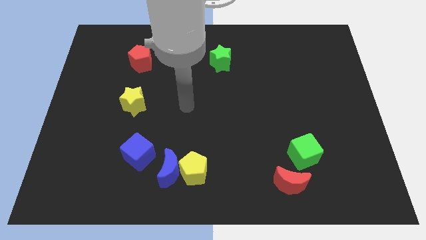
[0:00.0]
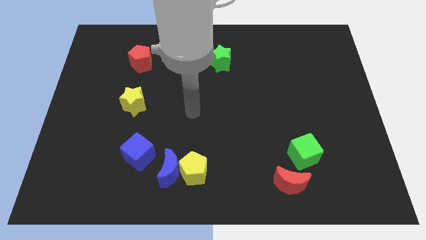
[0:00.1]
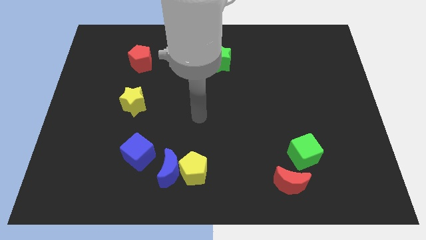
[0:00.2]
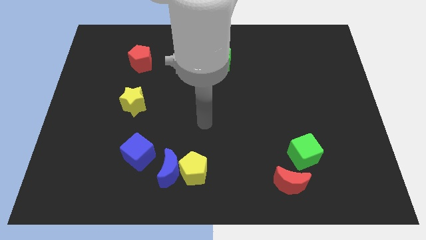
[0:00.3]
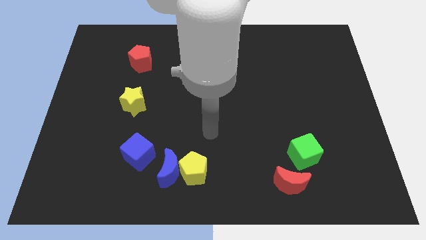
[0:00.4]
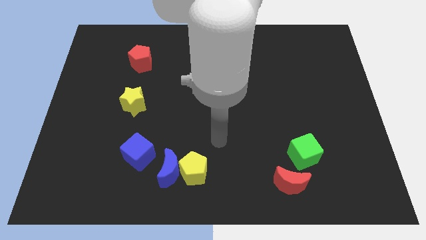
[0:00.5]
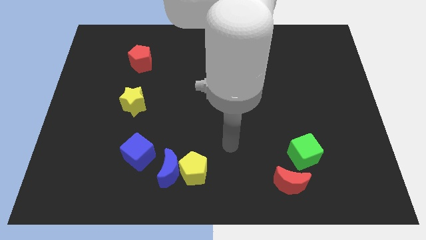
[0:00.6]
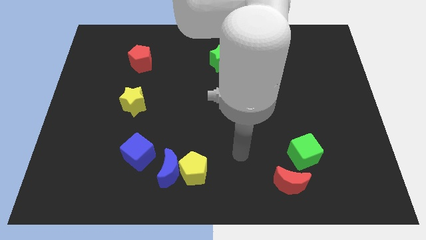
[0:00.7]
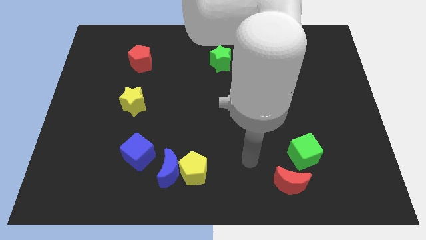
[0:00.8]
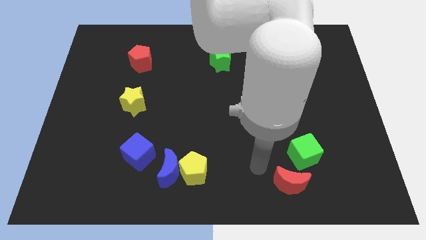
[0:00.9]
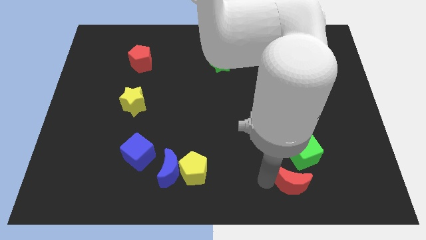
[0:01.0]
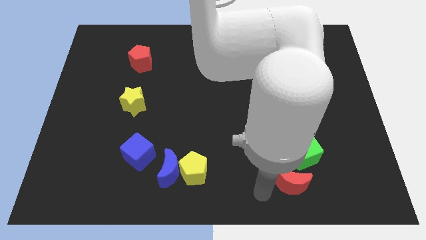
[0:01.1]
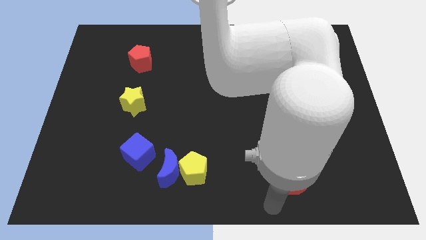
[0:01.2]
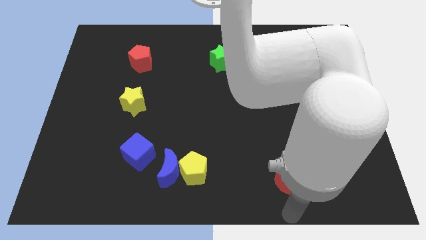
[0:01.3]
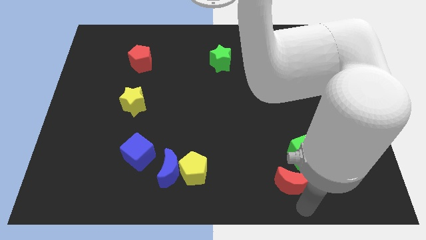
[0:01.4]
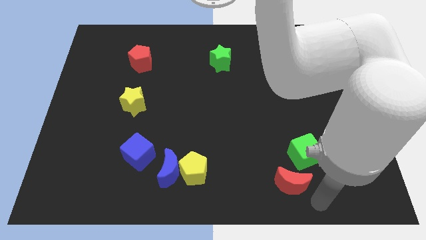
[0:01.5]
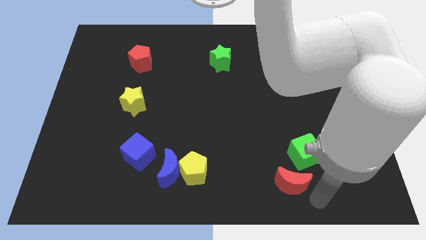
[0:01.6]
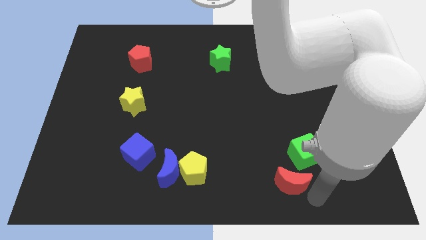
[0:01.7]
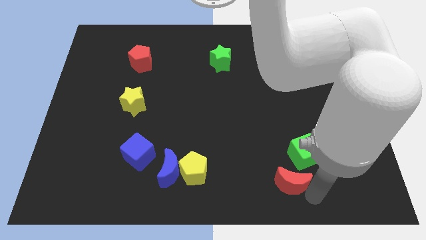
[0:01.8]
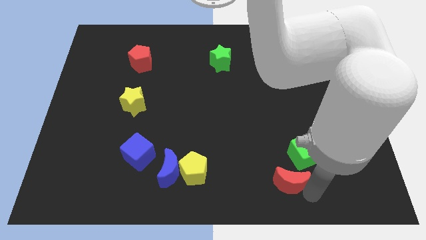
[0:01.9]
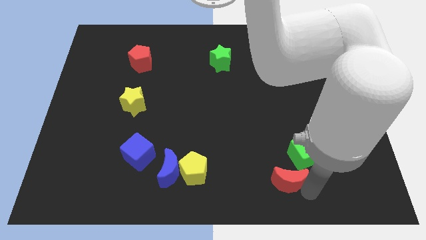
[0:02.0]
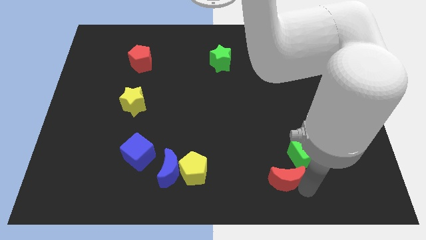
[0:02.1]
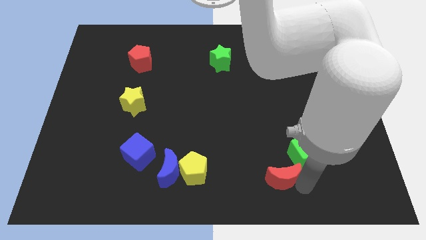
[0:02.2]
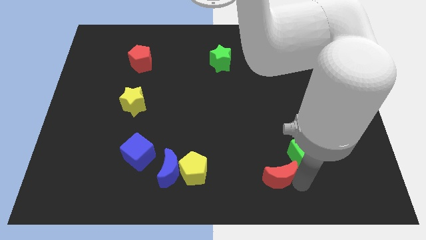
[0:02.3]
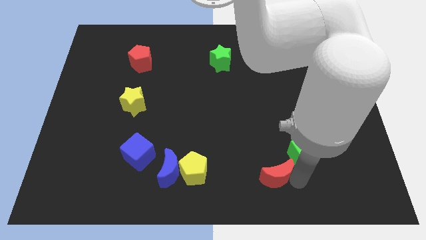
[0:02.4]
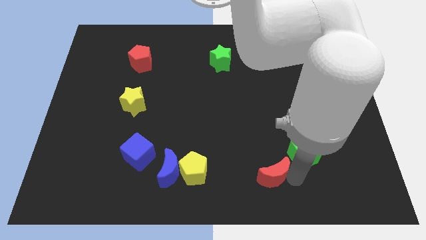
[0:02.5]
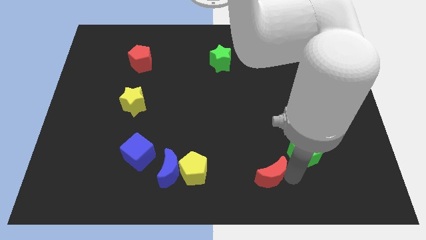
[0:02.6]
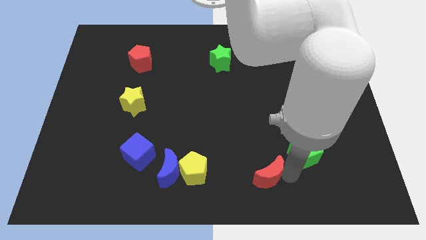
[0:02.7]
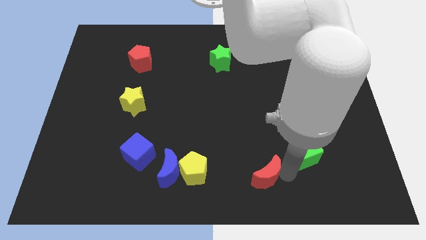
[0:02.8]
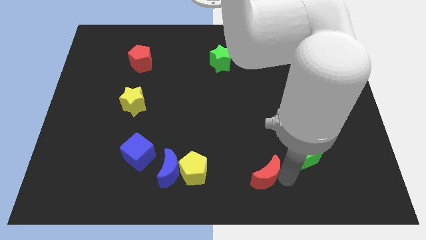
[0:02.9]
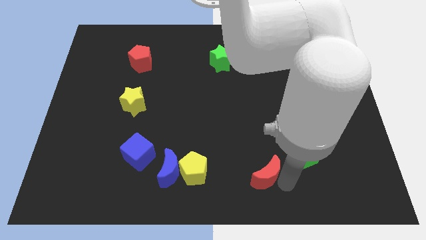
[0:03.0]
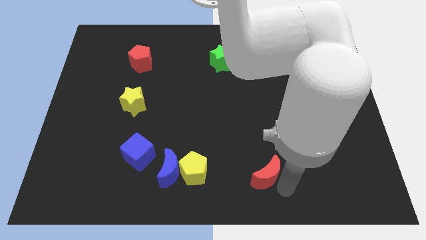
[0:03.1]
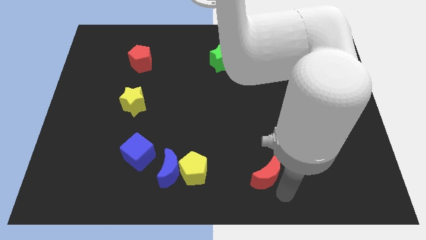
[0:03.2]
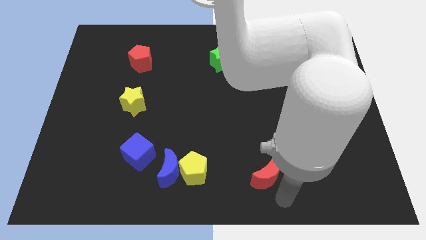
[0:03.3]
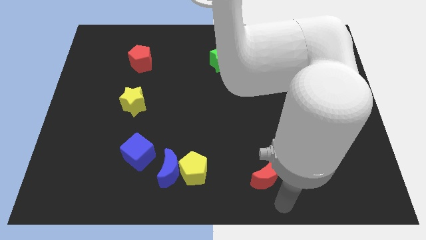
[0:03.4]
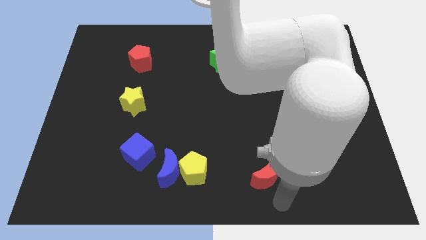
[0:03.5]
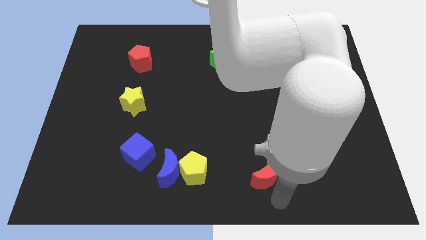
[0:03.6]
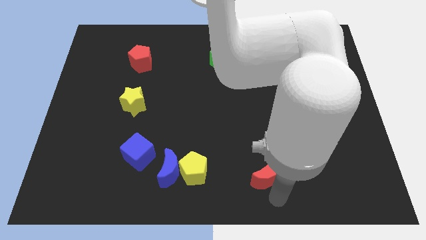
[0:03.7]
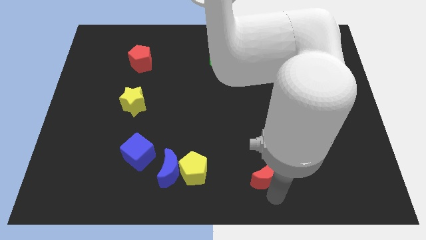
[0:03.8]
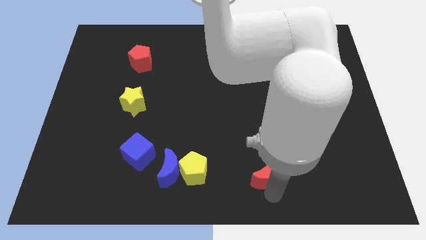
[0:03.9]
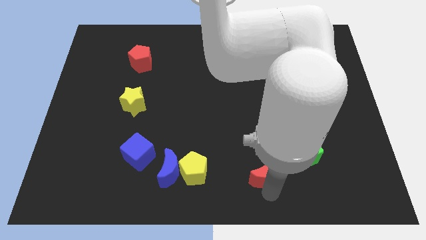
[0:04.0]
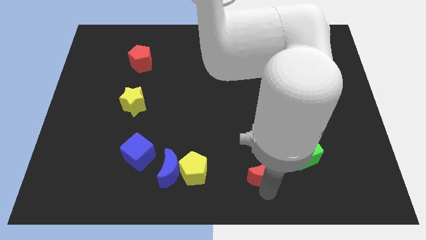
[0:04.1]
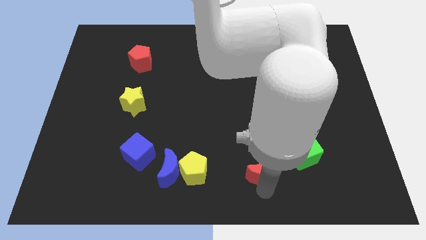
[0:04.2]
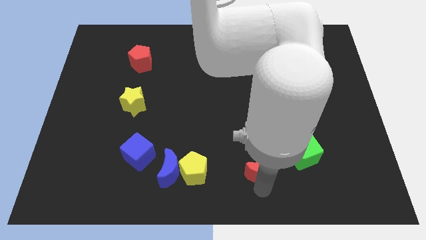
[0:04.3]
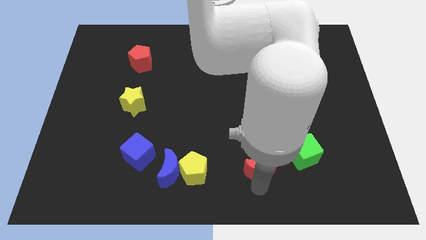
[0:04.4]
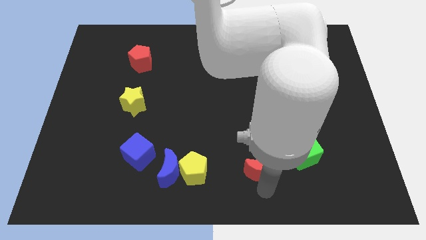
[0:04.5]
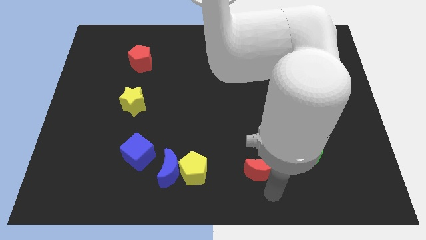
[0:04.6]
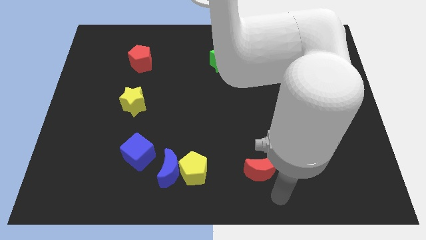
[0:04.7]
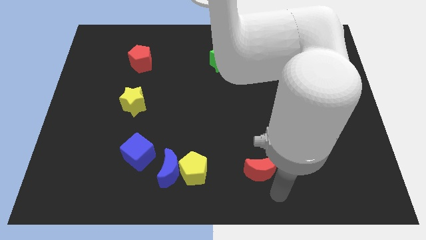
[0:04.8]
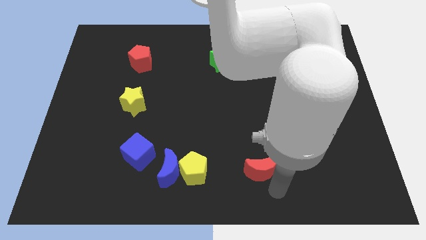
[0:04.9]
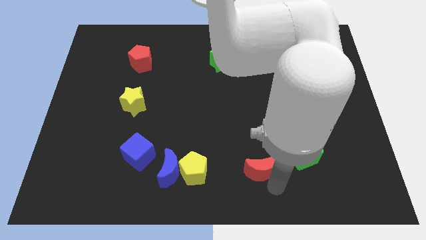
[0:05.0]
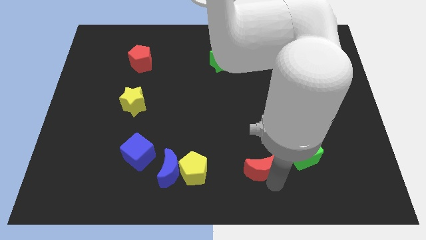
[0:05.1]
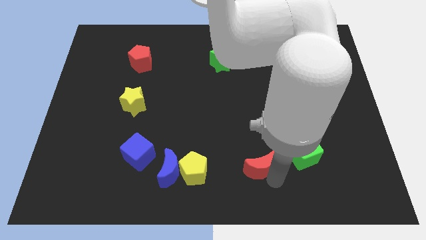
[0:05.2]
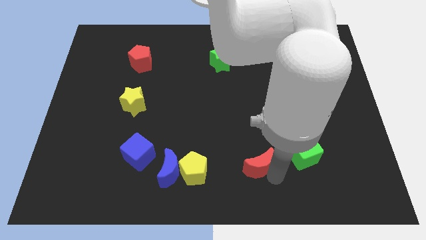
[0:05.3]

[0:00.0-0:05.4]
push the red moon upwards and left somewhat

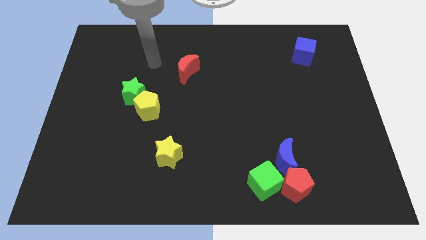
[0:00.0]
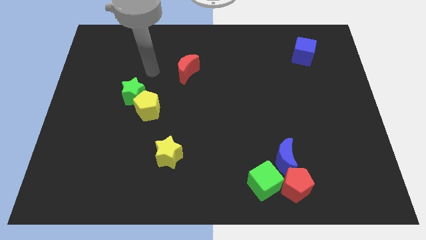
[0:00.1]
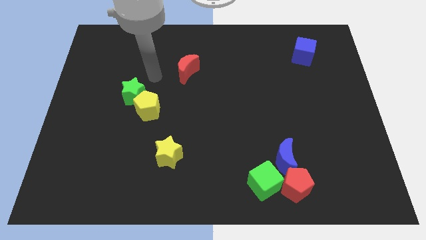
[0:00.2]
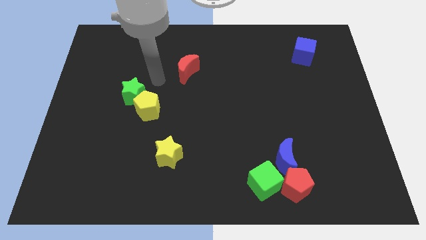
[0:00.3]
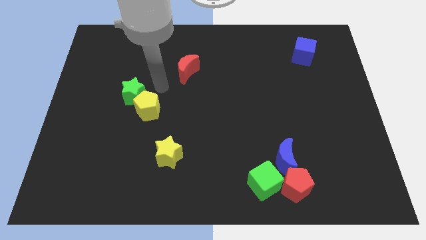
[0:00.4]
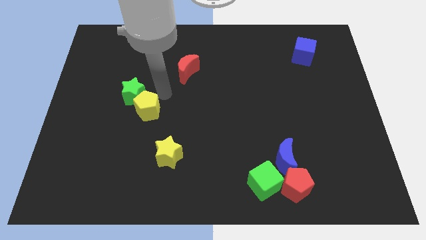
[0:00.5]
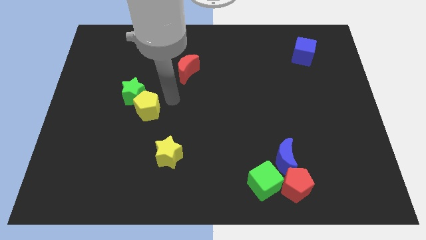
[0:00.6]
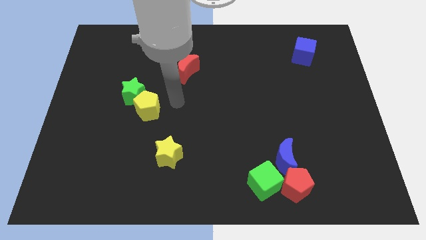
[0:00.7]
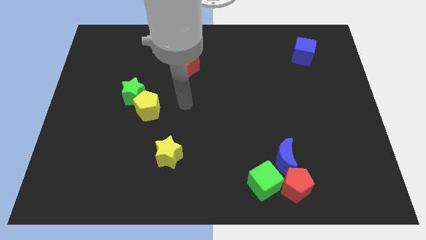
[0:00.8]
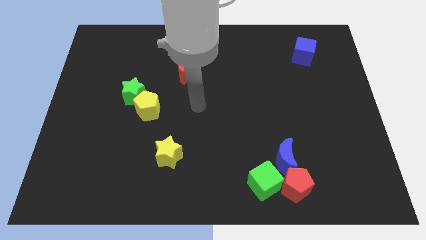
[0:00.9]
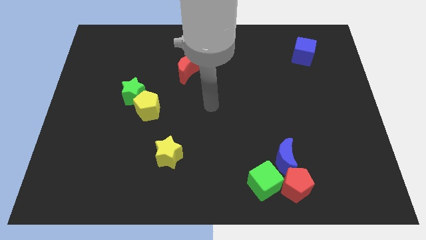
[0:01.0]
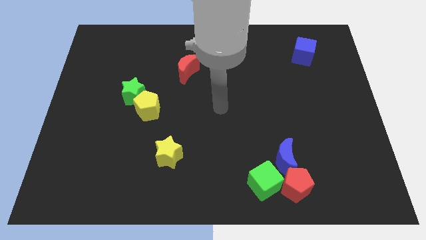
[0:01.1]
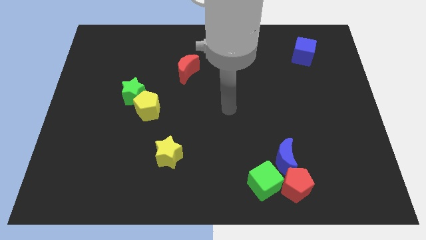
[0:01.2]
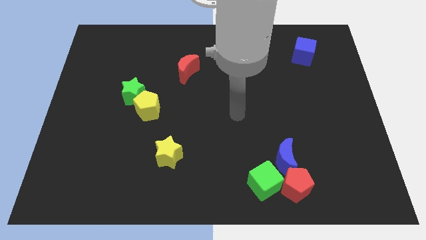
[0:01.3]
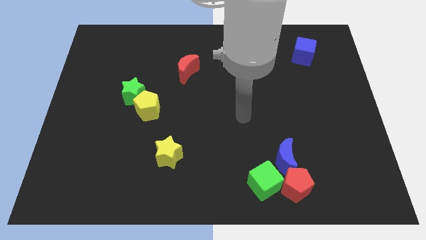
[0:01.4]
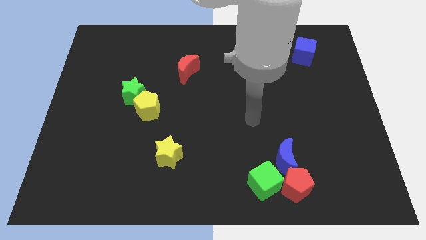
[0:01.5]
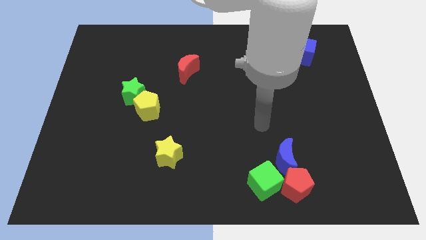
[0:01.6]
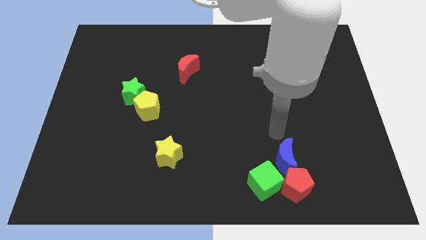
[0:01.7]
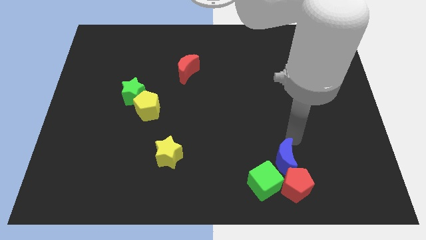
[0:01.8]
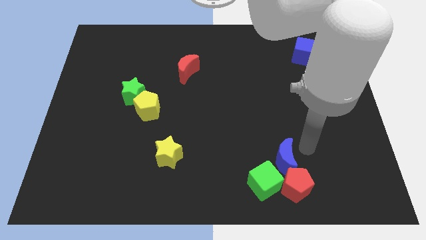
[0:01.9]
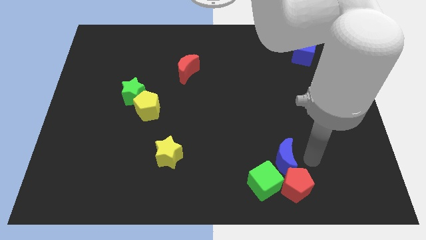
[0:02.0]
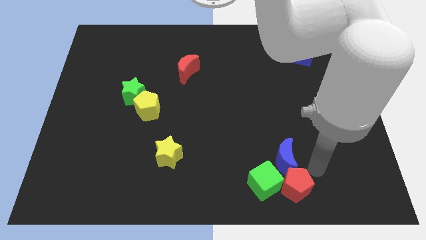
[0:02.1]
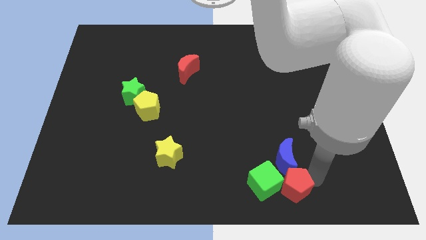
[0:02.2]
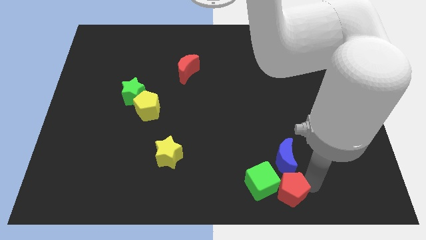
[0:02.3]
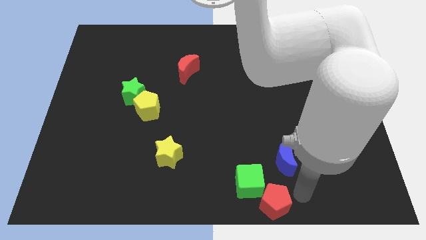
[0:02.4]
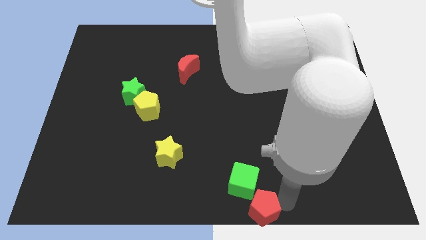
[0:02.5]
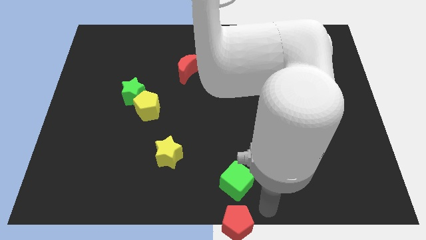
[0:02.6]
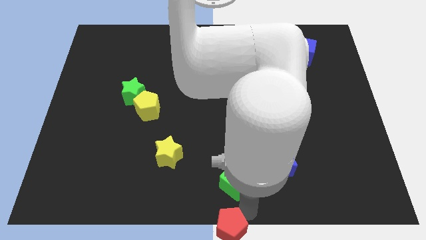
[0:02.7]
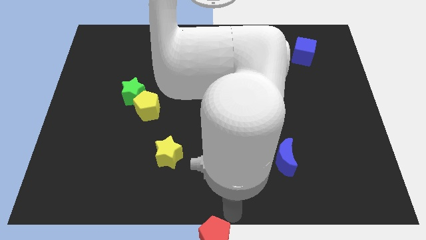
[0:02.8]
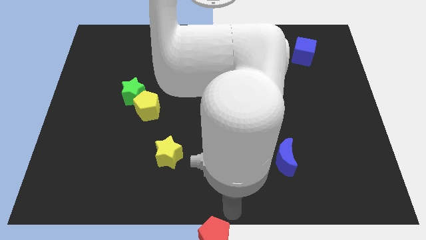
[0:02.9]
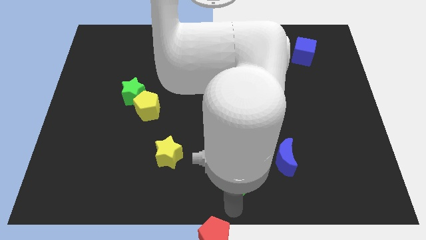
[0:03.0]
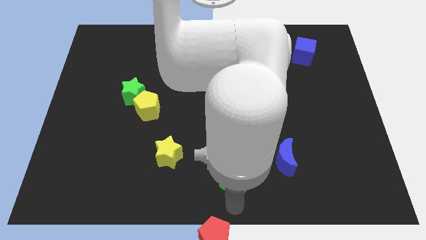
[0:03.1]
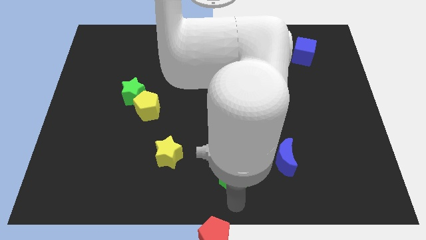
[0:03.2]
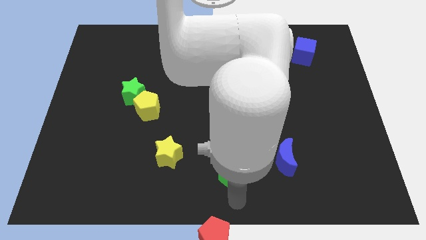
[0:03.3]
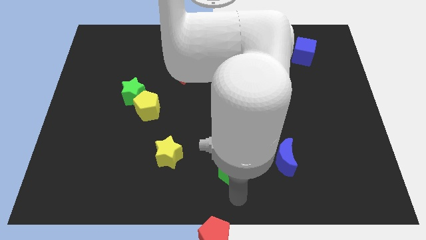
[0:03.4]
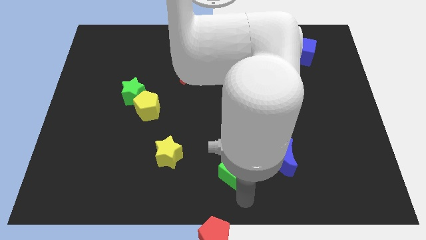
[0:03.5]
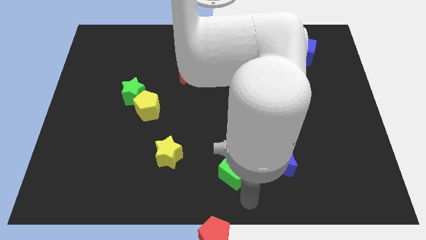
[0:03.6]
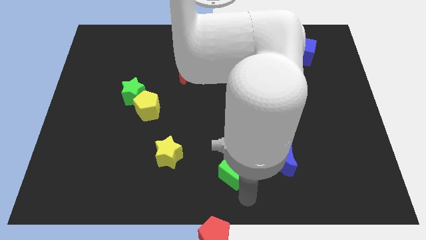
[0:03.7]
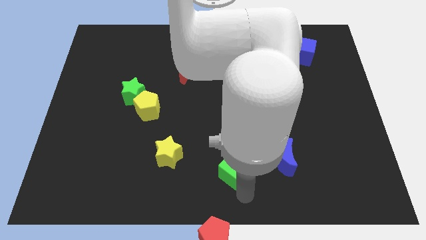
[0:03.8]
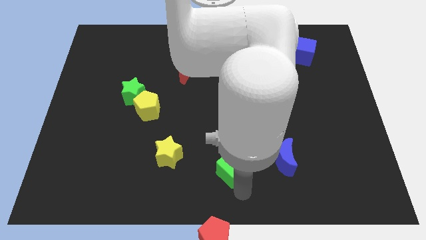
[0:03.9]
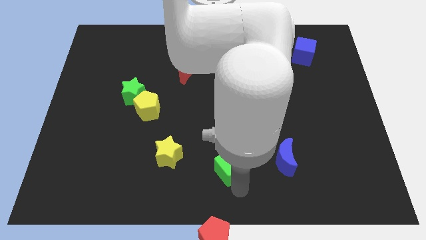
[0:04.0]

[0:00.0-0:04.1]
slightly push the green cube diagonally upwards and to the left
